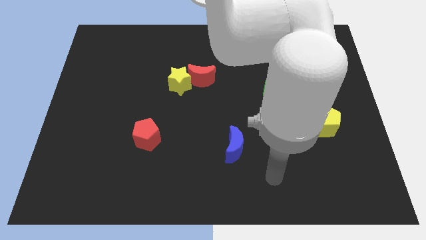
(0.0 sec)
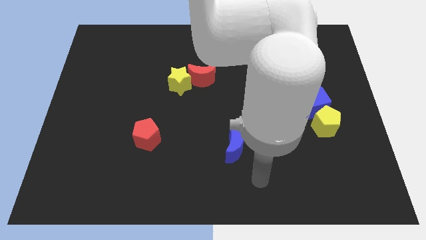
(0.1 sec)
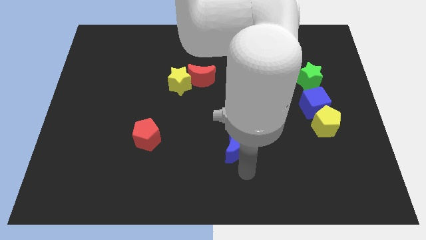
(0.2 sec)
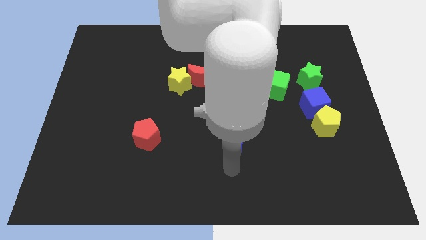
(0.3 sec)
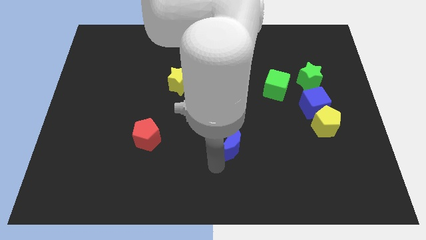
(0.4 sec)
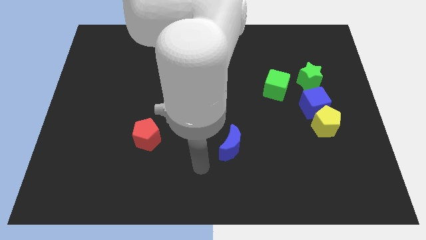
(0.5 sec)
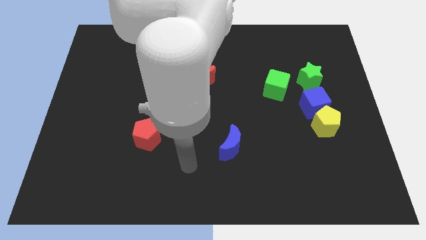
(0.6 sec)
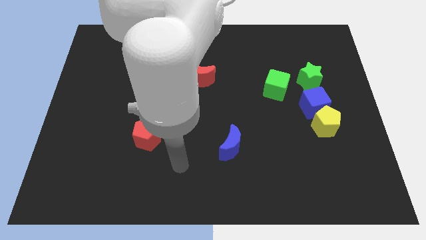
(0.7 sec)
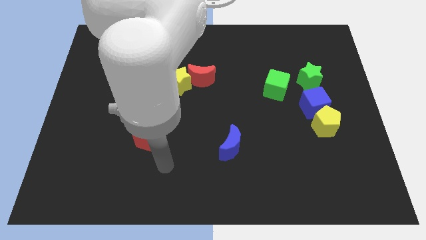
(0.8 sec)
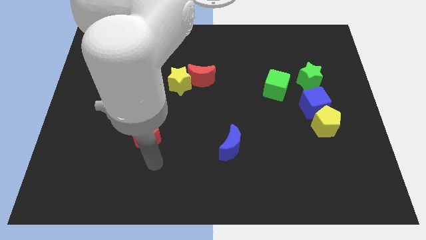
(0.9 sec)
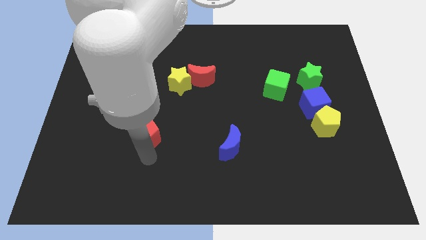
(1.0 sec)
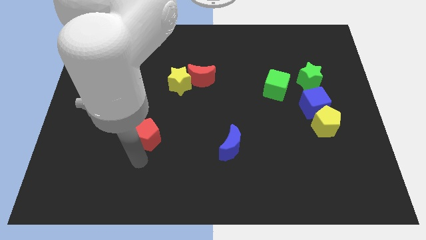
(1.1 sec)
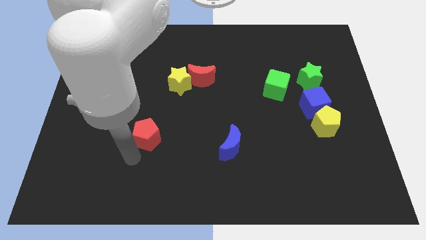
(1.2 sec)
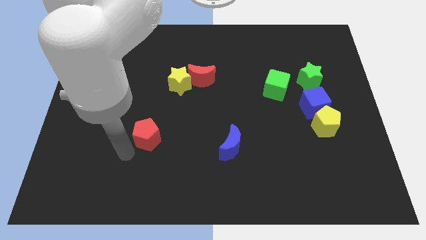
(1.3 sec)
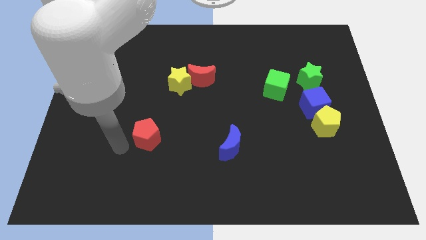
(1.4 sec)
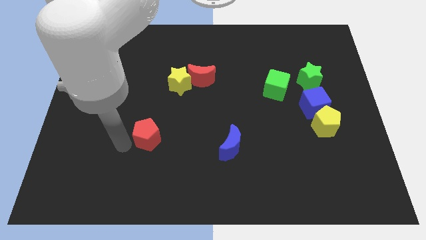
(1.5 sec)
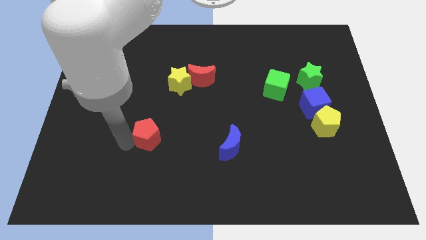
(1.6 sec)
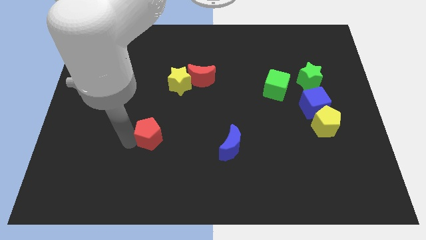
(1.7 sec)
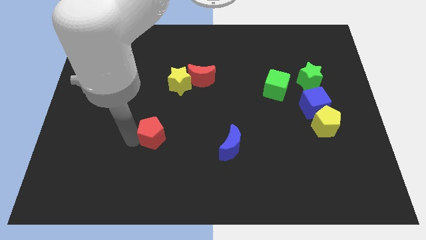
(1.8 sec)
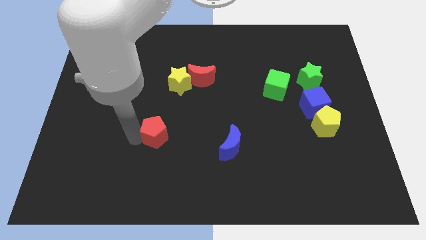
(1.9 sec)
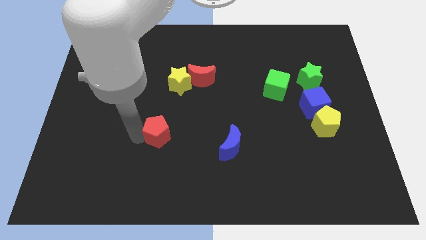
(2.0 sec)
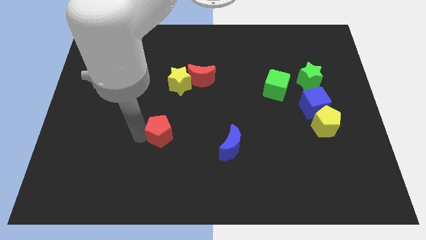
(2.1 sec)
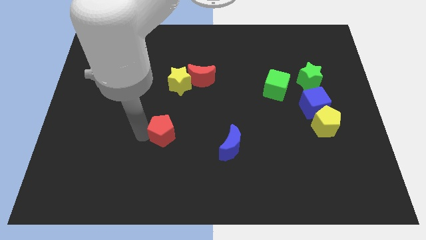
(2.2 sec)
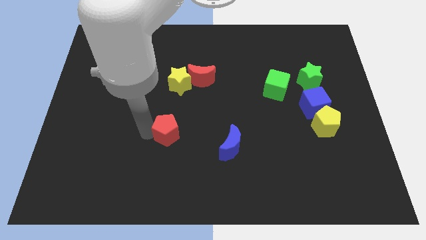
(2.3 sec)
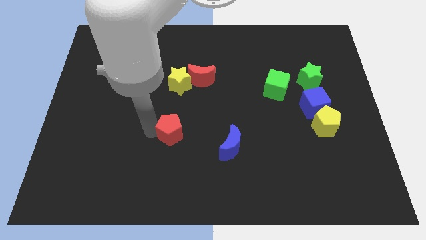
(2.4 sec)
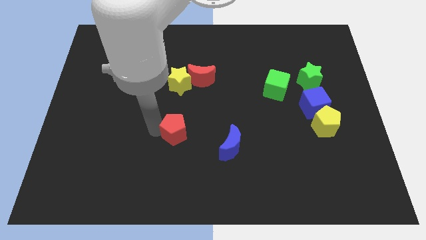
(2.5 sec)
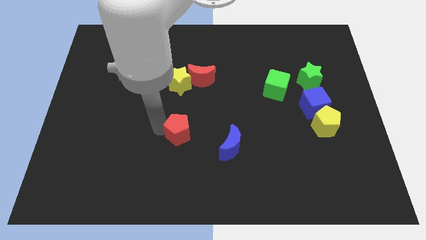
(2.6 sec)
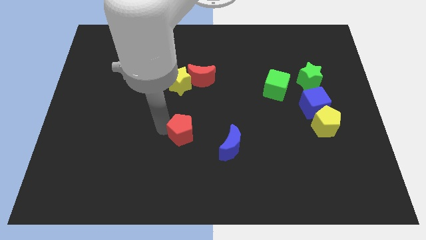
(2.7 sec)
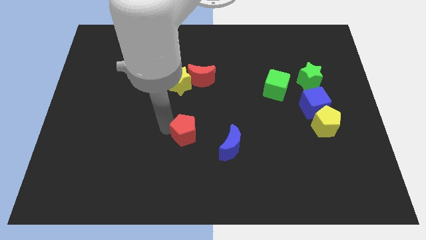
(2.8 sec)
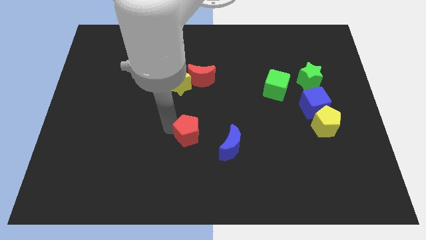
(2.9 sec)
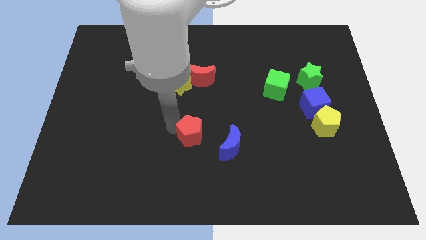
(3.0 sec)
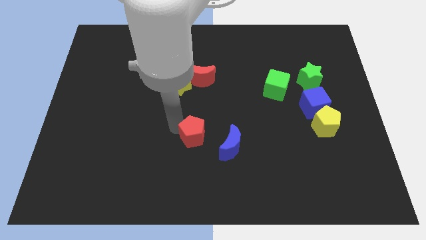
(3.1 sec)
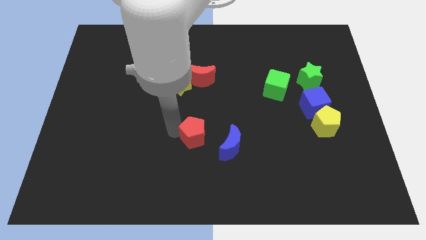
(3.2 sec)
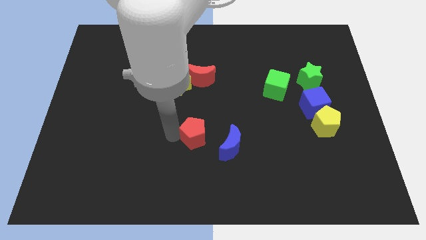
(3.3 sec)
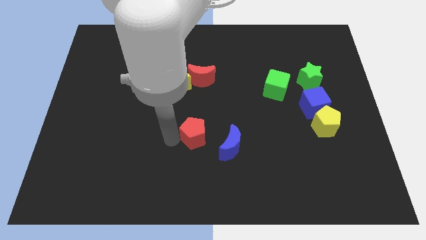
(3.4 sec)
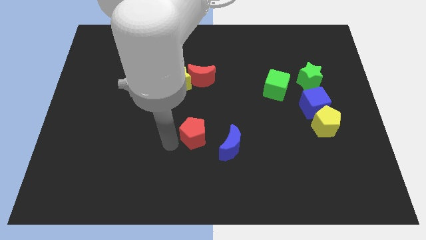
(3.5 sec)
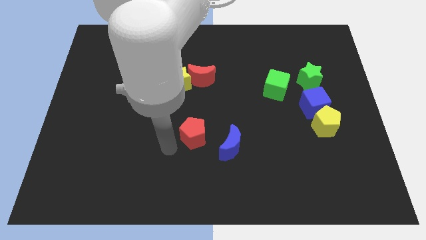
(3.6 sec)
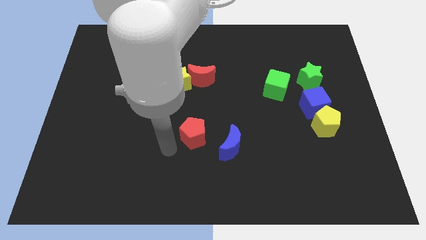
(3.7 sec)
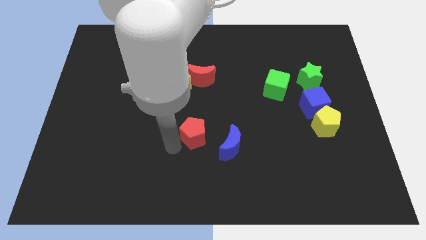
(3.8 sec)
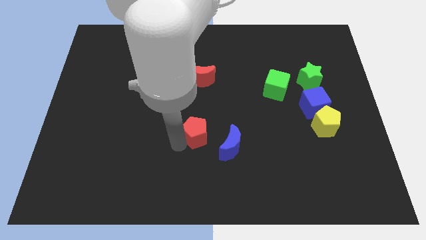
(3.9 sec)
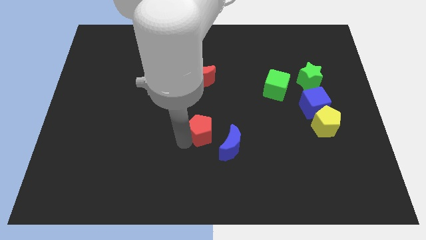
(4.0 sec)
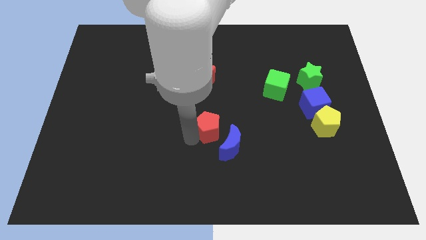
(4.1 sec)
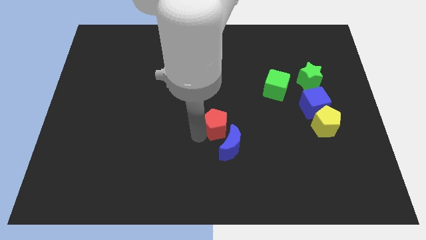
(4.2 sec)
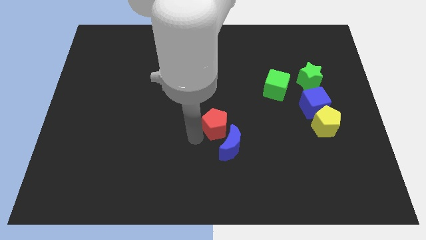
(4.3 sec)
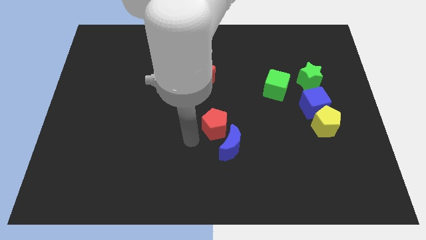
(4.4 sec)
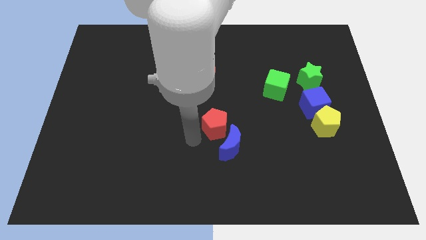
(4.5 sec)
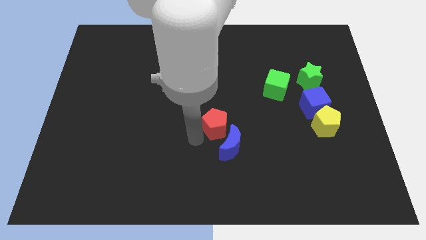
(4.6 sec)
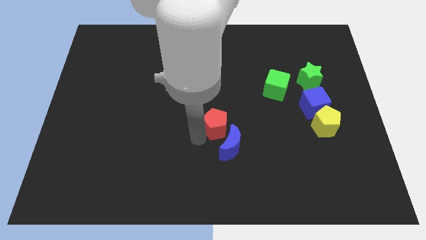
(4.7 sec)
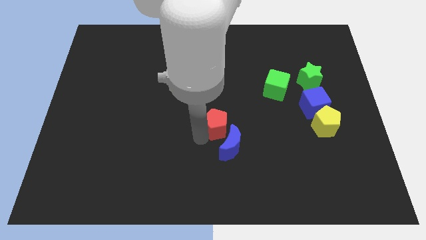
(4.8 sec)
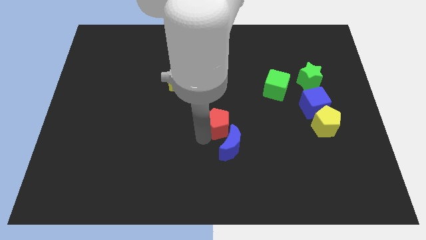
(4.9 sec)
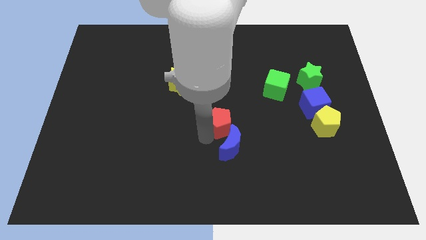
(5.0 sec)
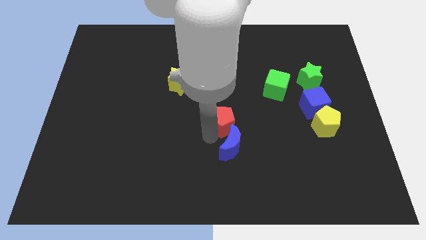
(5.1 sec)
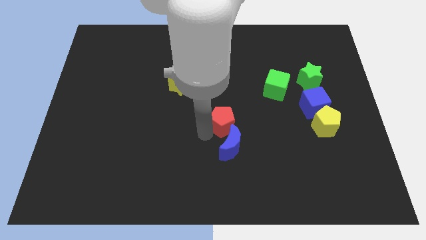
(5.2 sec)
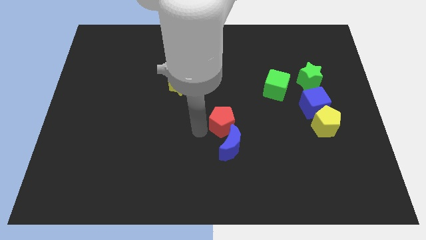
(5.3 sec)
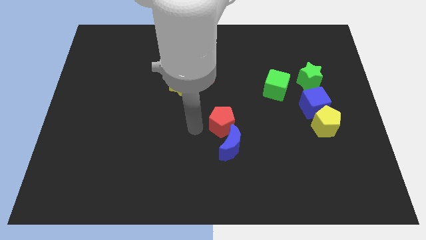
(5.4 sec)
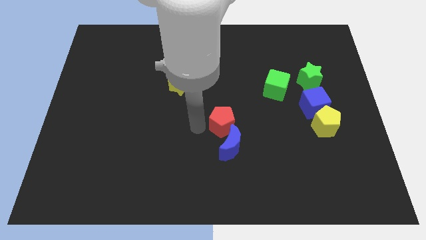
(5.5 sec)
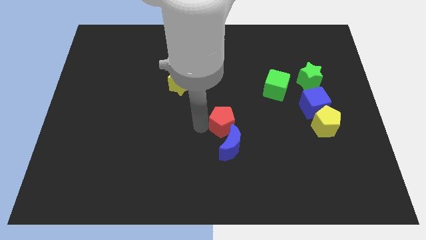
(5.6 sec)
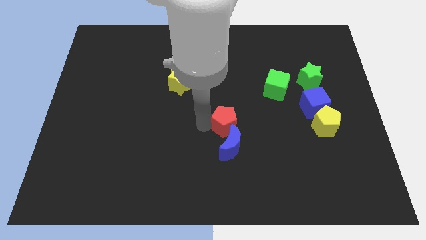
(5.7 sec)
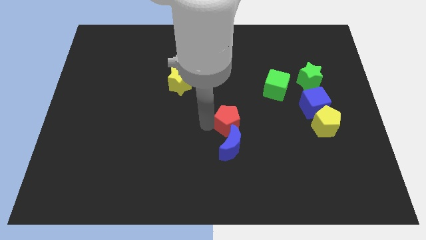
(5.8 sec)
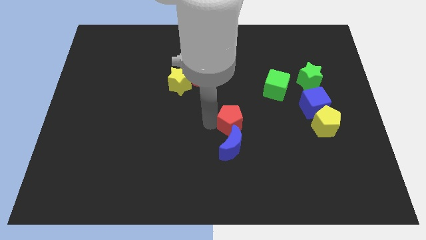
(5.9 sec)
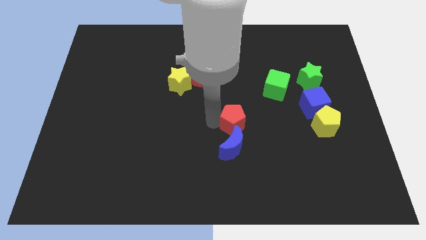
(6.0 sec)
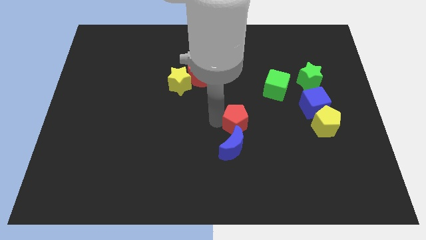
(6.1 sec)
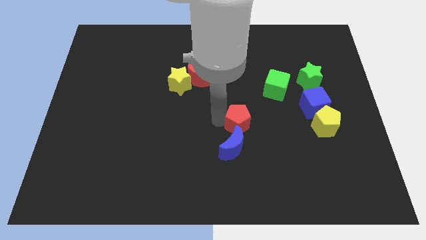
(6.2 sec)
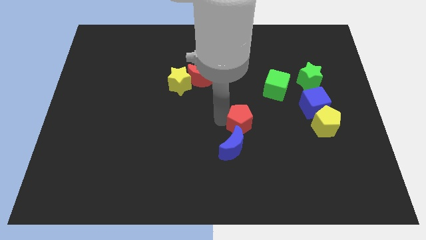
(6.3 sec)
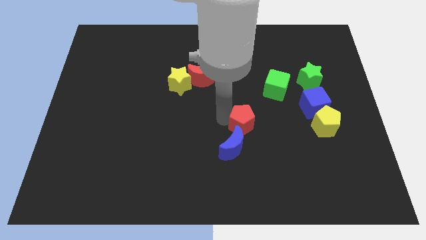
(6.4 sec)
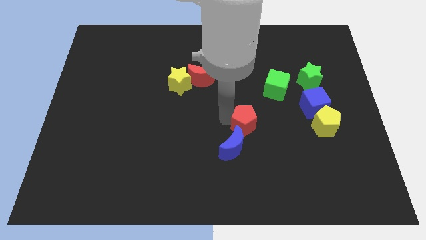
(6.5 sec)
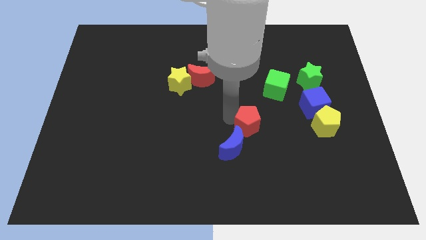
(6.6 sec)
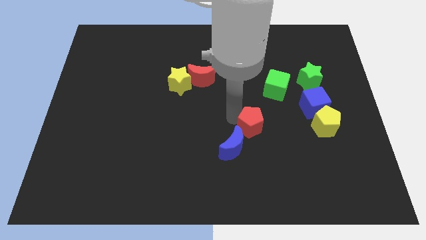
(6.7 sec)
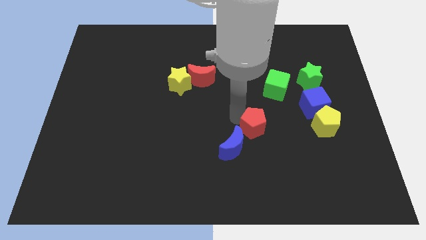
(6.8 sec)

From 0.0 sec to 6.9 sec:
put the red pentagon to the left of the yellow pentagon

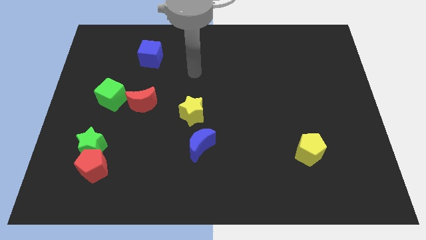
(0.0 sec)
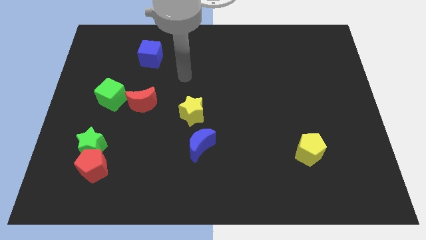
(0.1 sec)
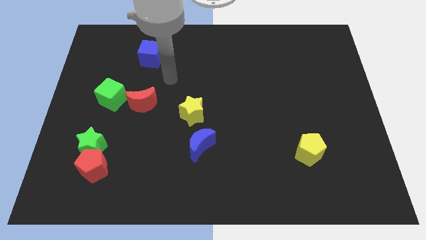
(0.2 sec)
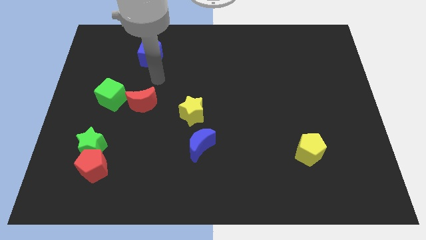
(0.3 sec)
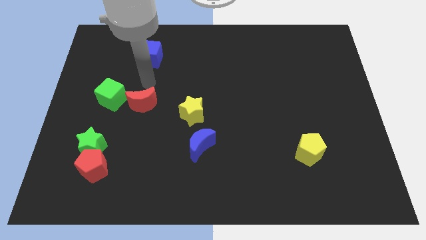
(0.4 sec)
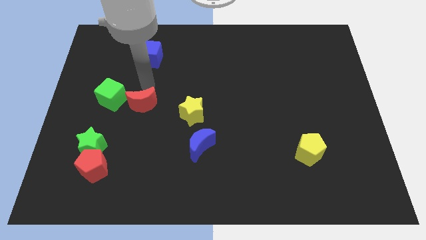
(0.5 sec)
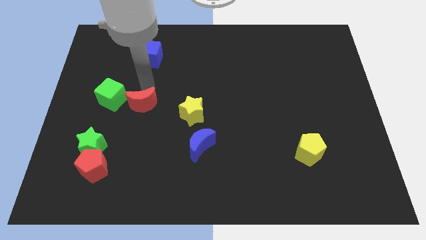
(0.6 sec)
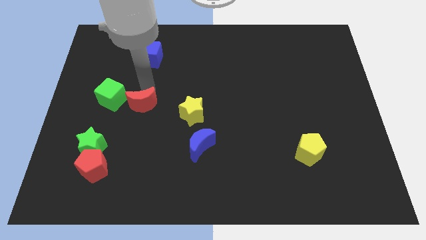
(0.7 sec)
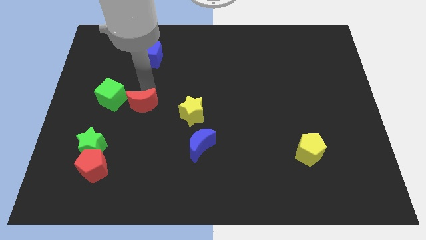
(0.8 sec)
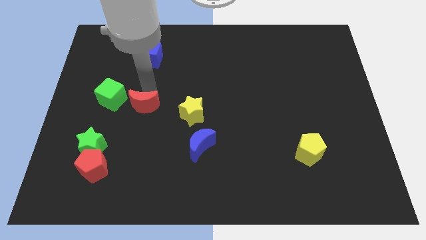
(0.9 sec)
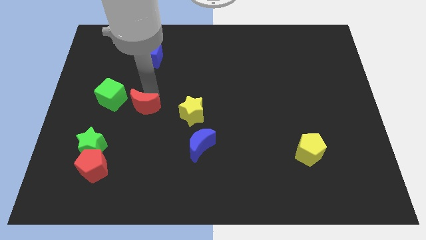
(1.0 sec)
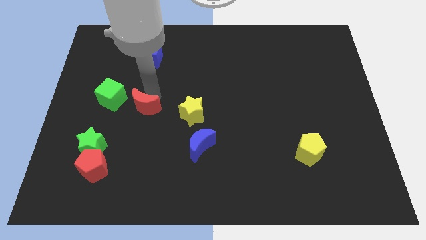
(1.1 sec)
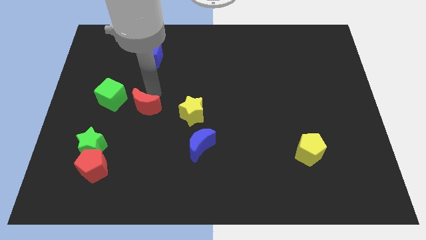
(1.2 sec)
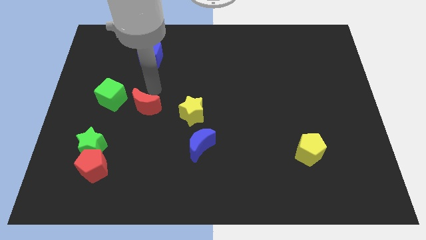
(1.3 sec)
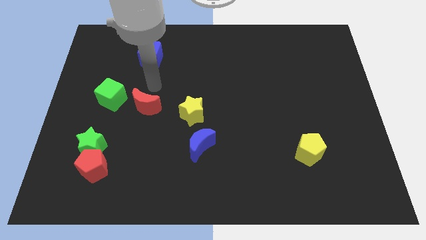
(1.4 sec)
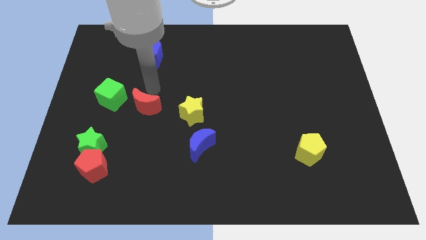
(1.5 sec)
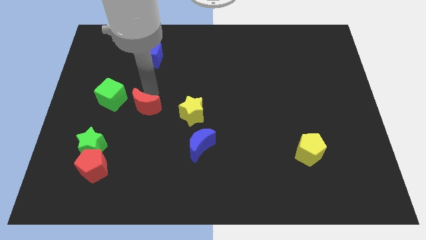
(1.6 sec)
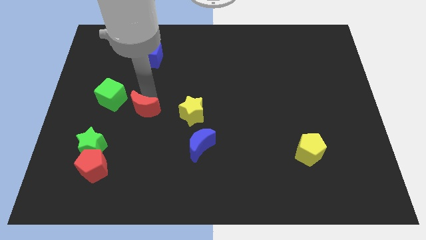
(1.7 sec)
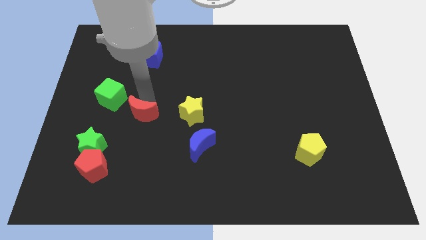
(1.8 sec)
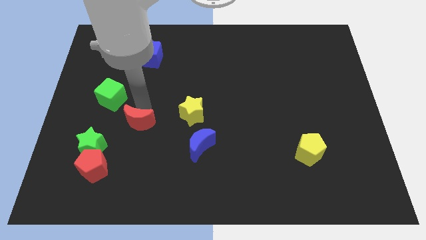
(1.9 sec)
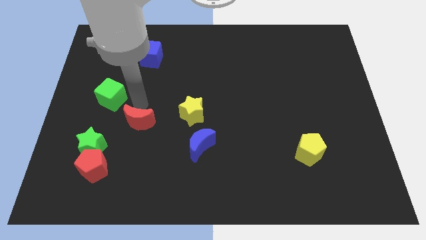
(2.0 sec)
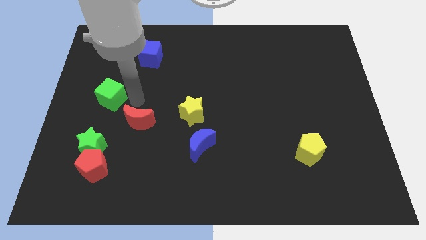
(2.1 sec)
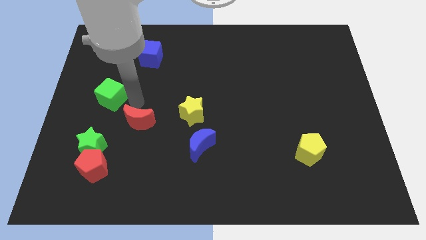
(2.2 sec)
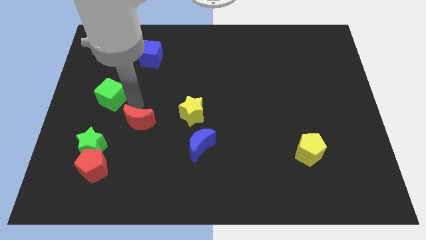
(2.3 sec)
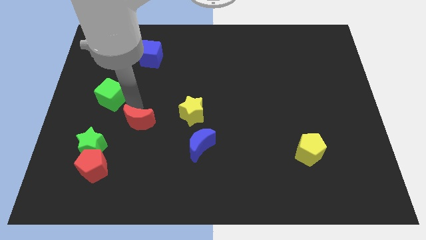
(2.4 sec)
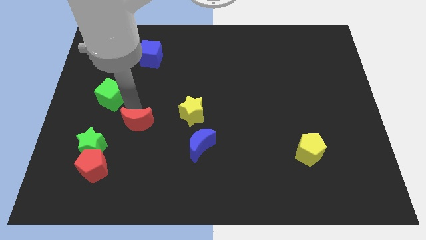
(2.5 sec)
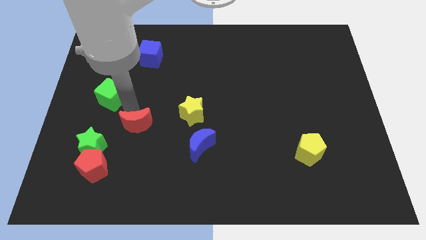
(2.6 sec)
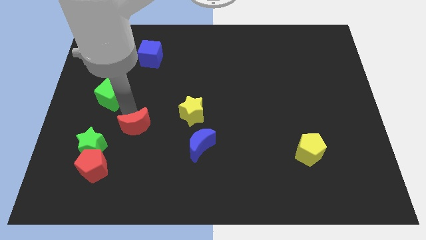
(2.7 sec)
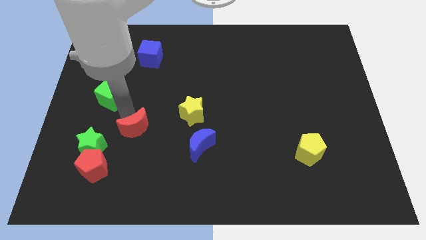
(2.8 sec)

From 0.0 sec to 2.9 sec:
push the red moon just right of the green star
